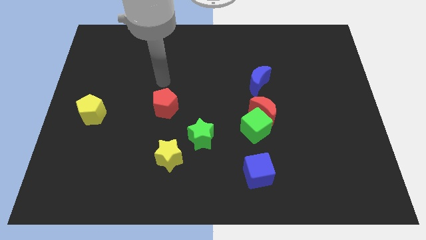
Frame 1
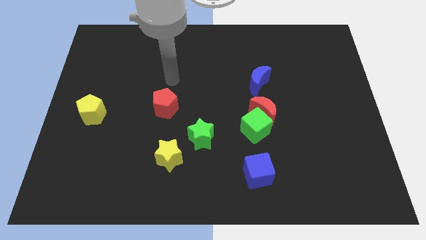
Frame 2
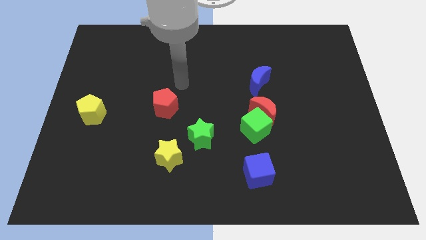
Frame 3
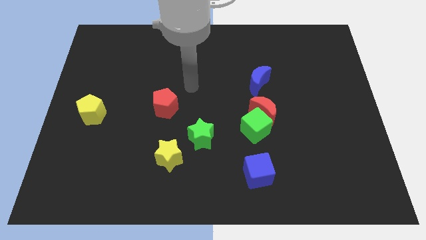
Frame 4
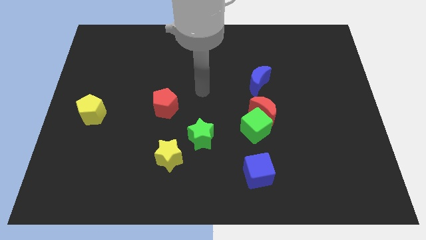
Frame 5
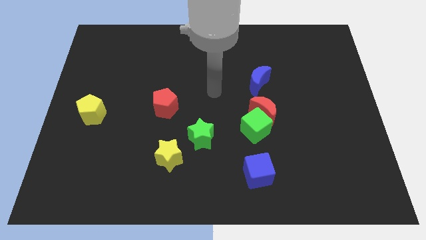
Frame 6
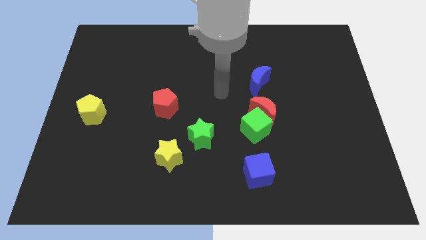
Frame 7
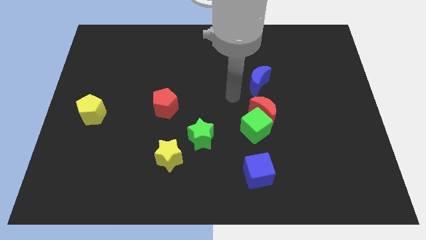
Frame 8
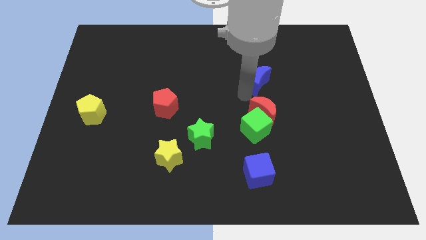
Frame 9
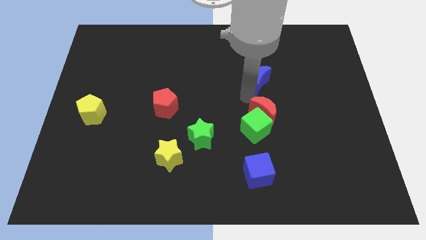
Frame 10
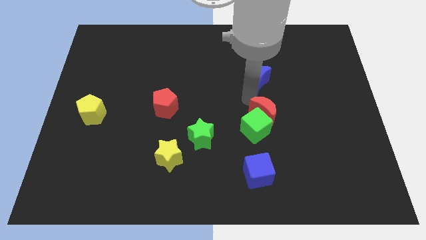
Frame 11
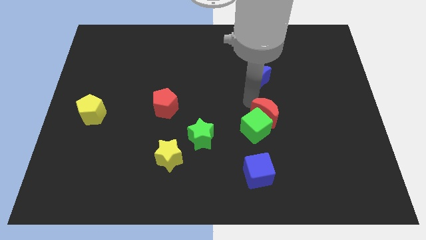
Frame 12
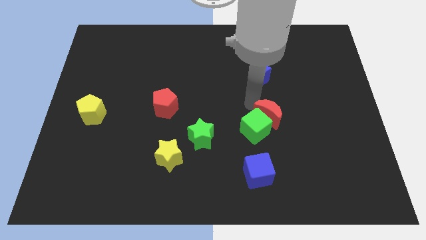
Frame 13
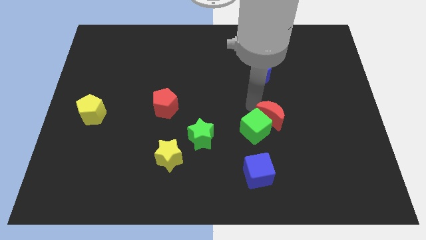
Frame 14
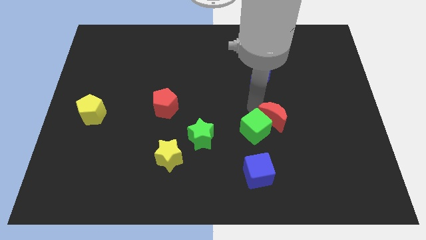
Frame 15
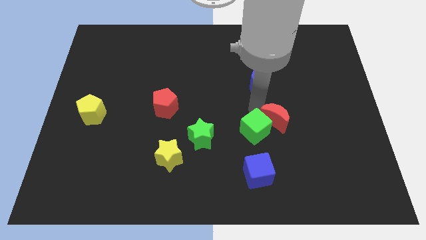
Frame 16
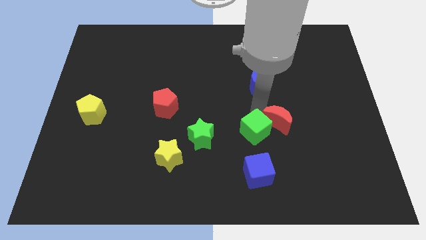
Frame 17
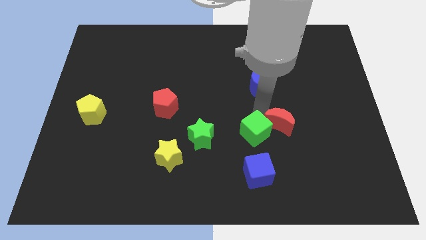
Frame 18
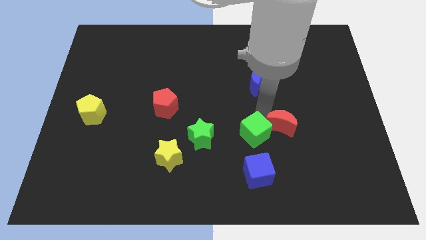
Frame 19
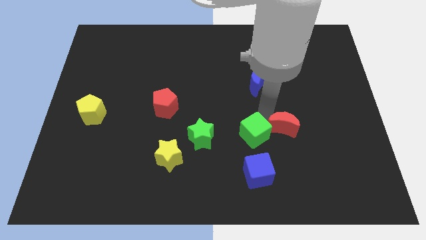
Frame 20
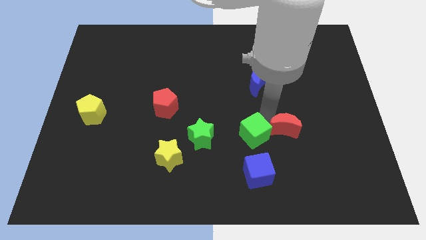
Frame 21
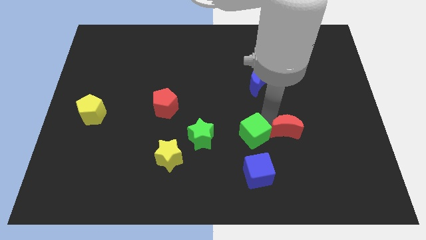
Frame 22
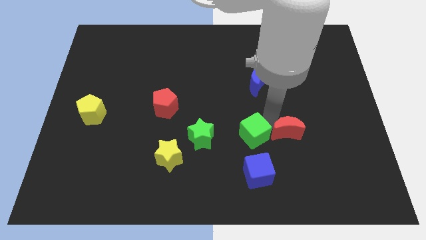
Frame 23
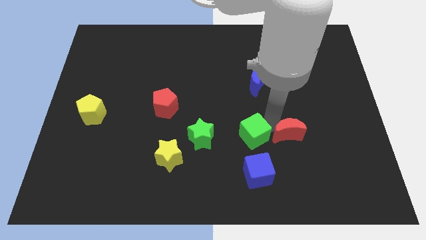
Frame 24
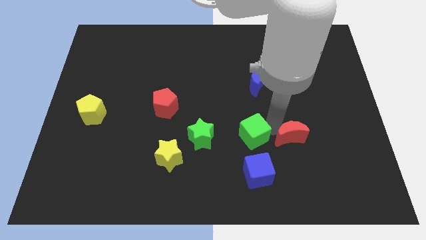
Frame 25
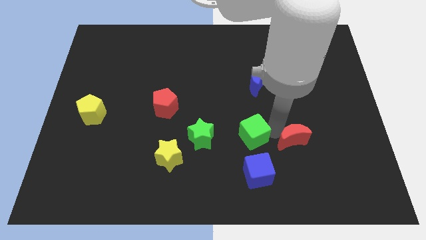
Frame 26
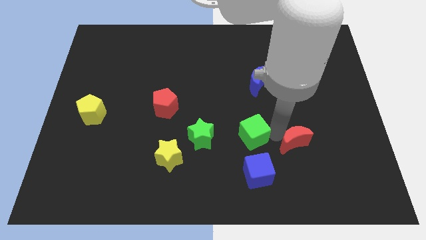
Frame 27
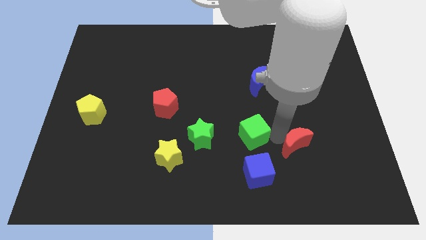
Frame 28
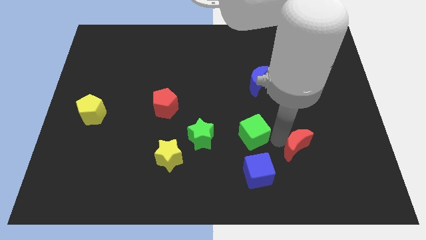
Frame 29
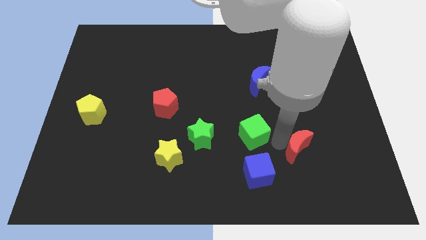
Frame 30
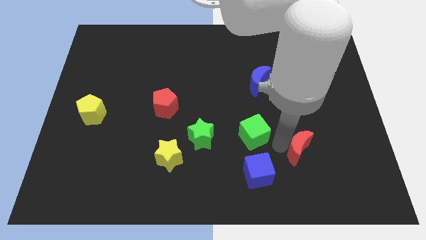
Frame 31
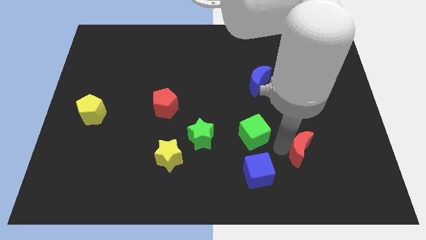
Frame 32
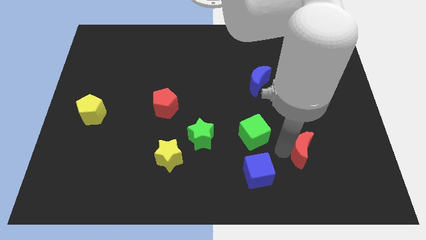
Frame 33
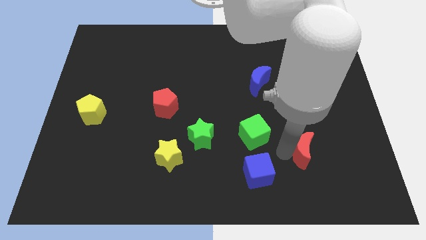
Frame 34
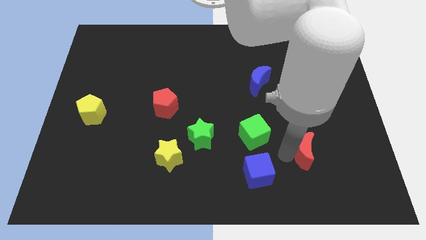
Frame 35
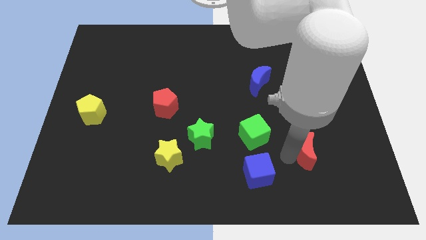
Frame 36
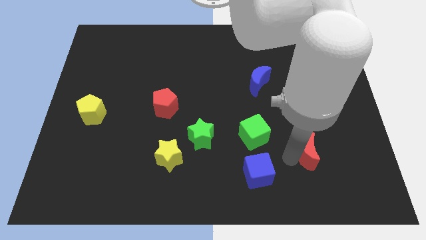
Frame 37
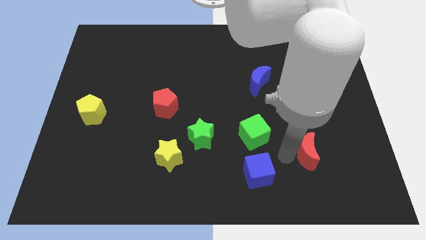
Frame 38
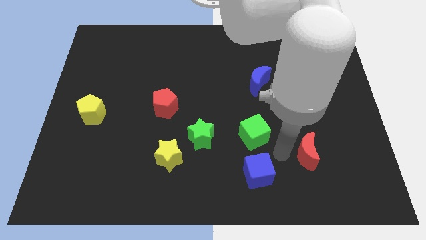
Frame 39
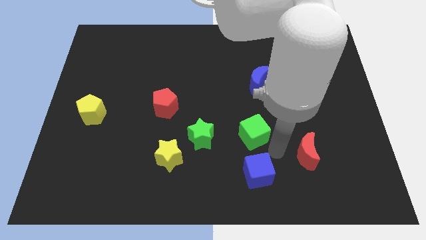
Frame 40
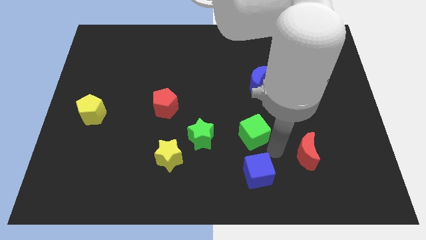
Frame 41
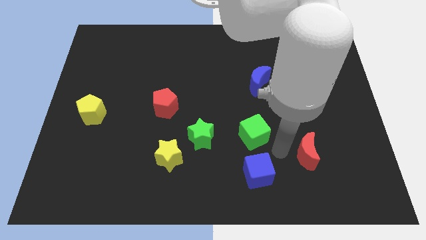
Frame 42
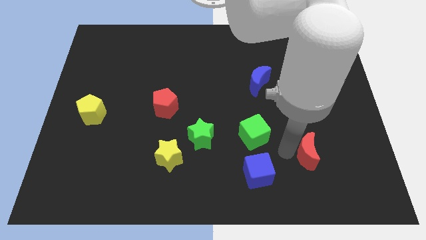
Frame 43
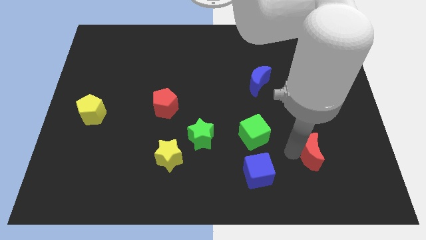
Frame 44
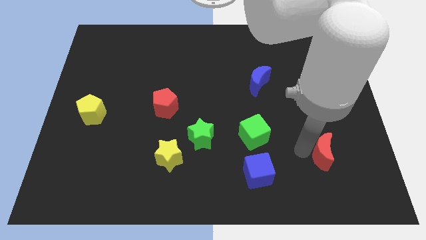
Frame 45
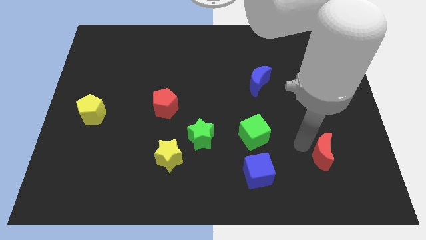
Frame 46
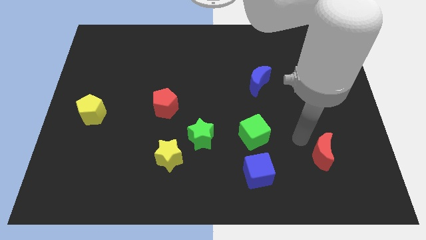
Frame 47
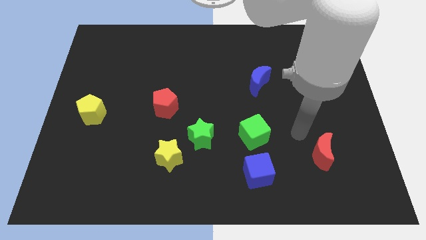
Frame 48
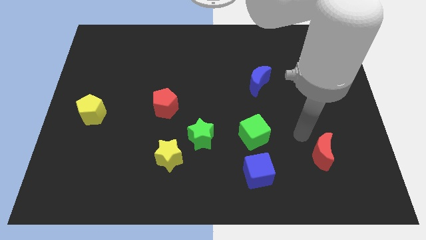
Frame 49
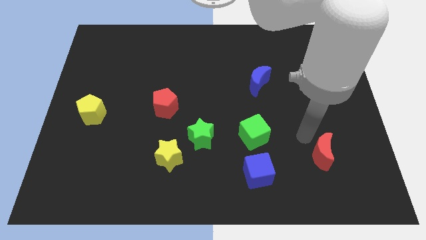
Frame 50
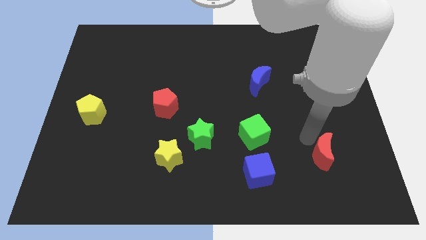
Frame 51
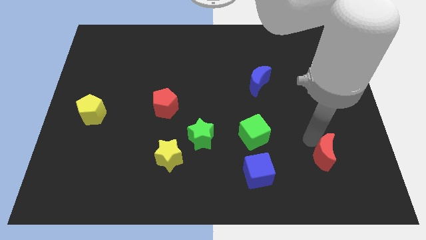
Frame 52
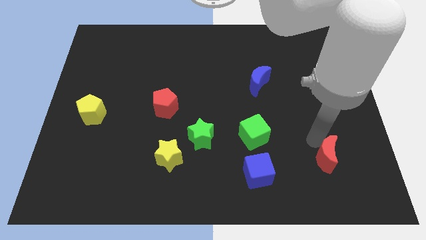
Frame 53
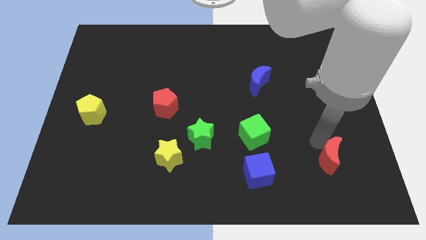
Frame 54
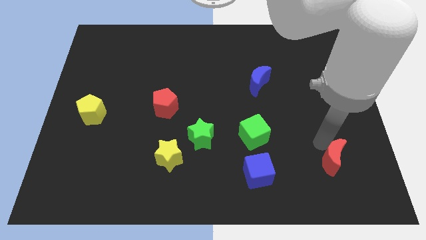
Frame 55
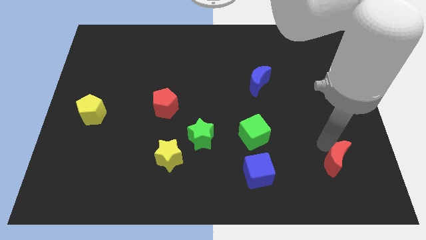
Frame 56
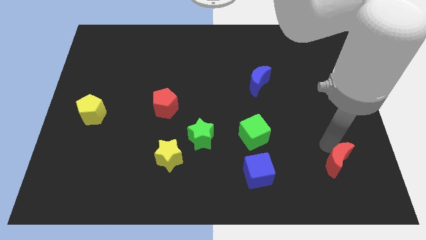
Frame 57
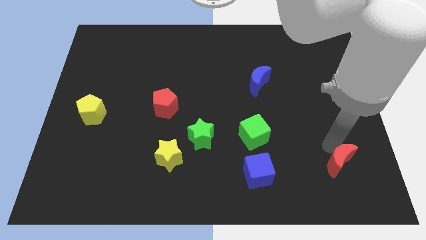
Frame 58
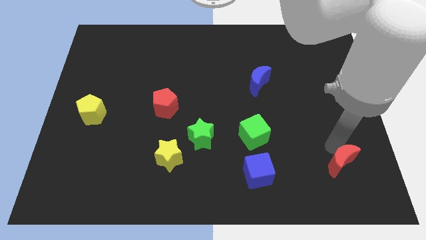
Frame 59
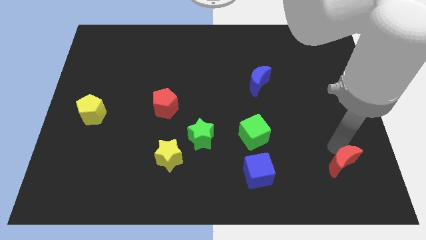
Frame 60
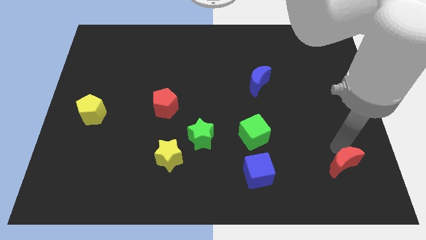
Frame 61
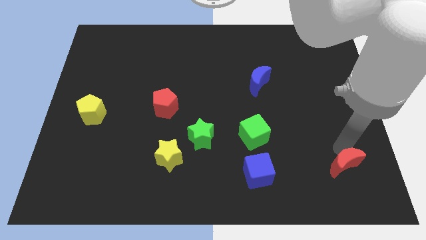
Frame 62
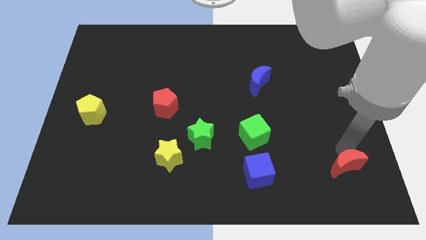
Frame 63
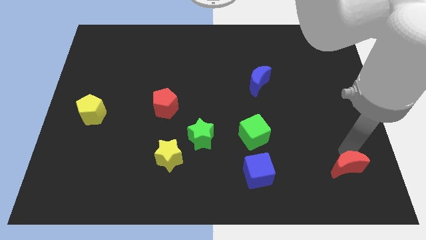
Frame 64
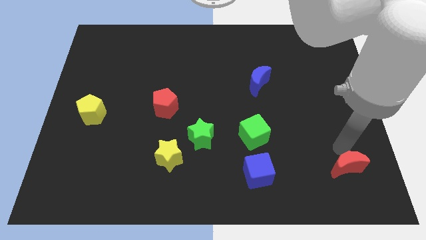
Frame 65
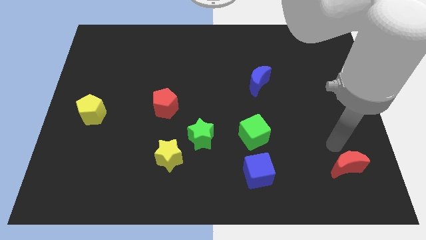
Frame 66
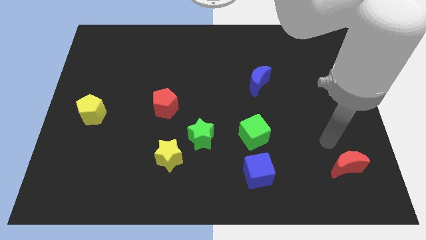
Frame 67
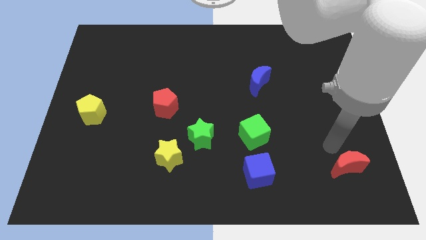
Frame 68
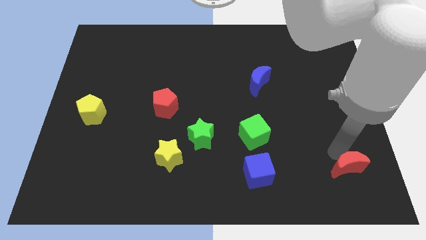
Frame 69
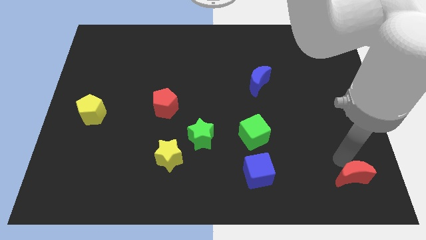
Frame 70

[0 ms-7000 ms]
move the red moon to the bottom right corner

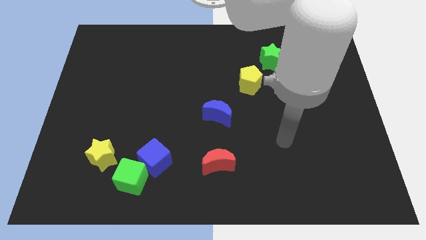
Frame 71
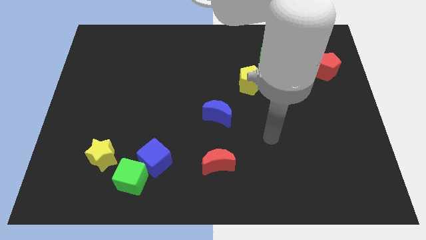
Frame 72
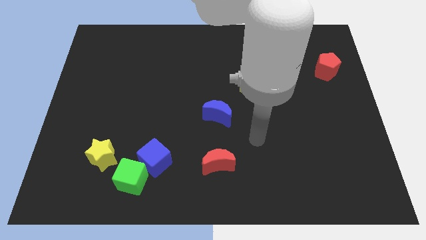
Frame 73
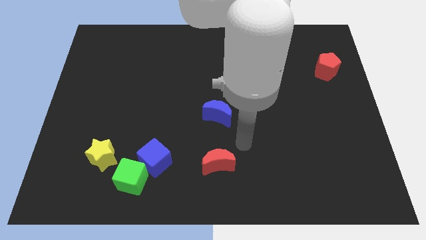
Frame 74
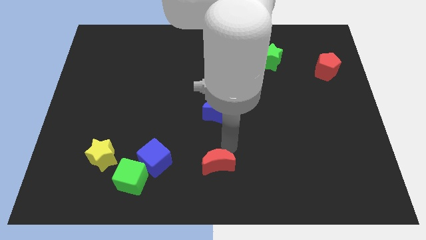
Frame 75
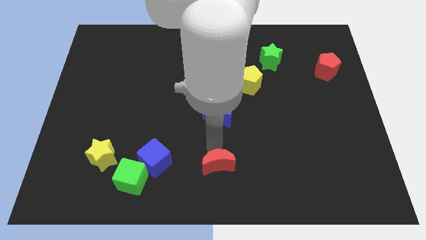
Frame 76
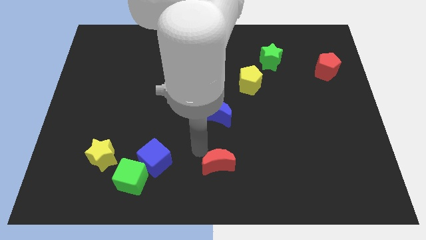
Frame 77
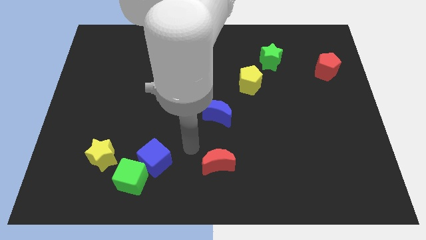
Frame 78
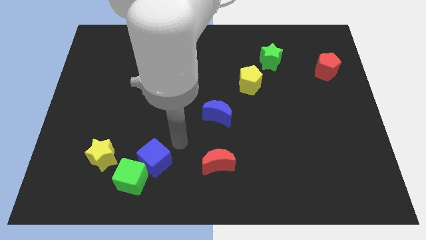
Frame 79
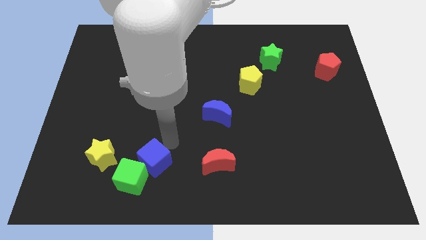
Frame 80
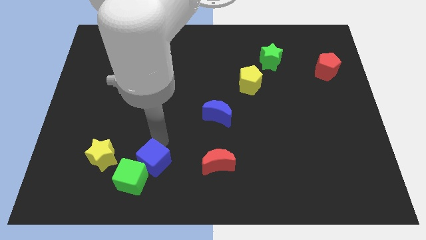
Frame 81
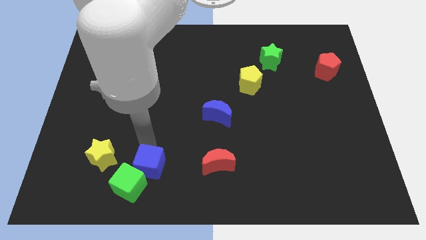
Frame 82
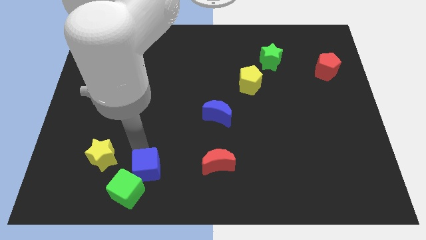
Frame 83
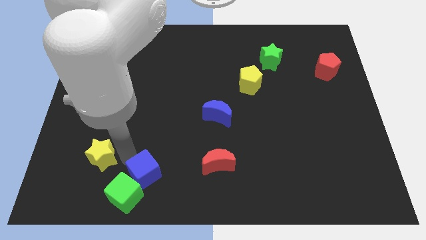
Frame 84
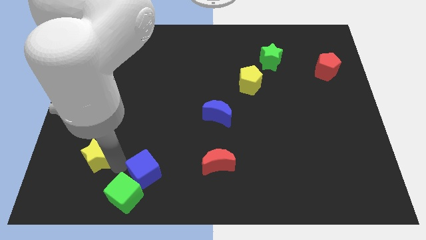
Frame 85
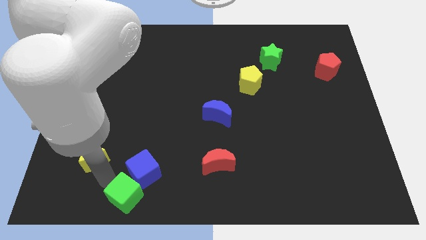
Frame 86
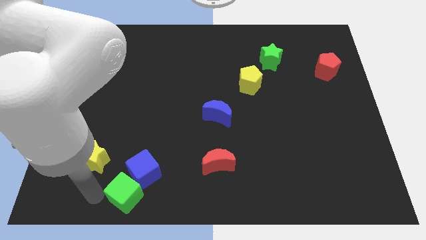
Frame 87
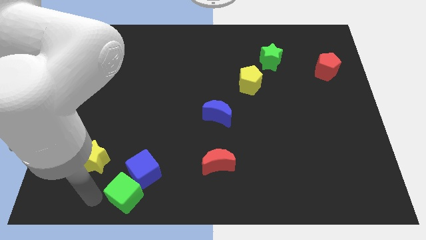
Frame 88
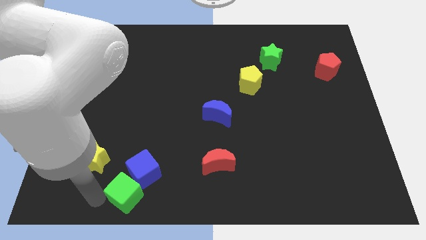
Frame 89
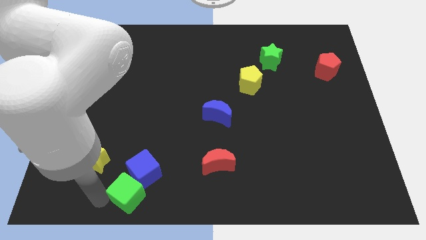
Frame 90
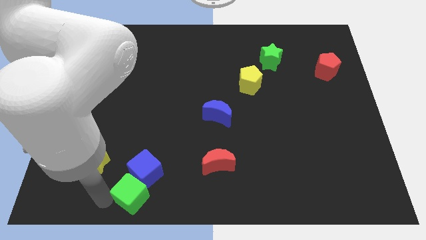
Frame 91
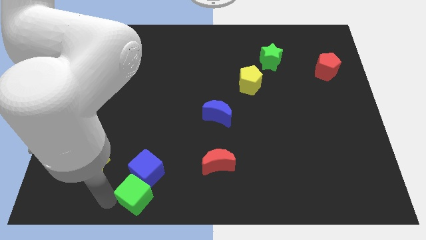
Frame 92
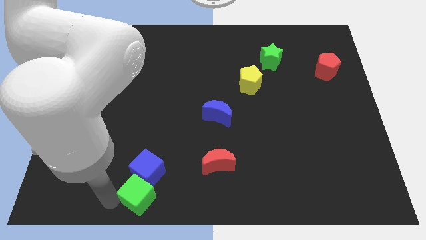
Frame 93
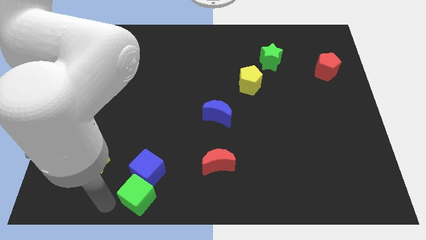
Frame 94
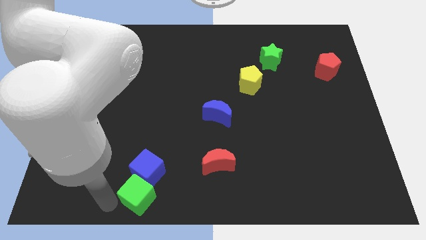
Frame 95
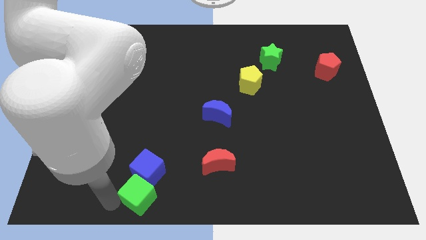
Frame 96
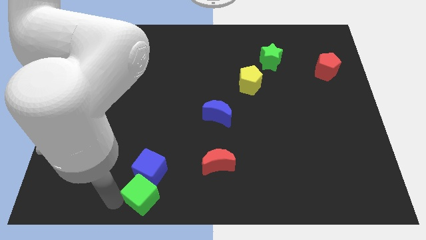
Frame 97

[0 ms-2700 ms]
slide the green cube to the bottom
